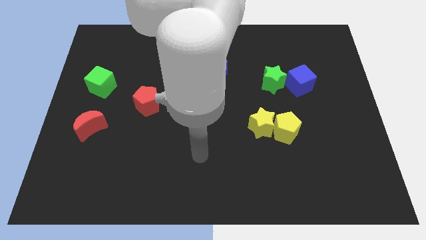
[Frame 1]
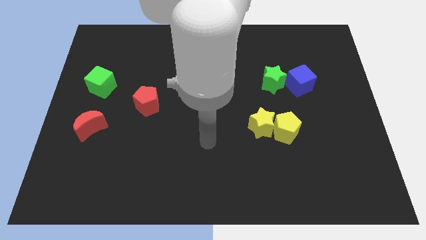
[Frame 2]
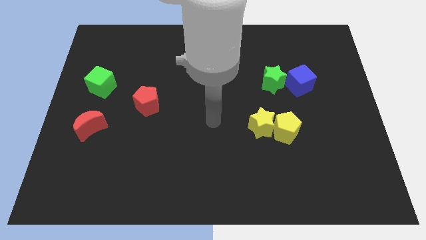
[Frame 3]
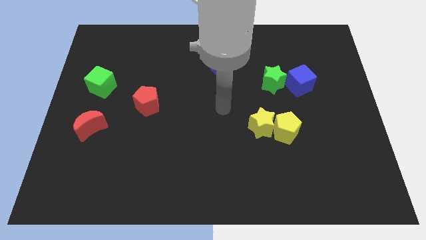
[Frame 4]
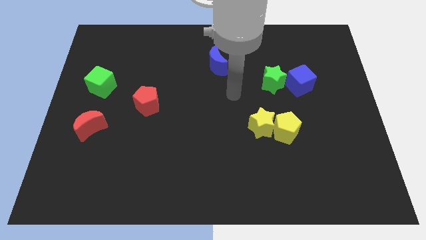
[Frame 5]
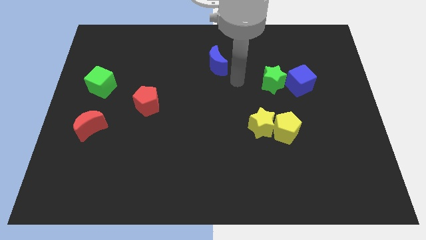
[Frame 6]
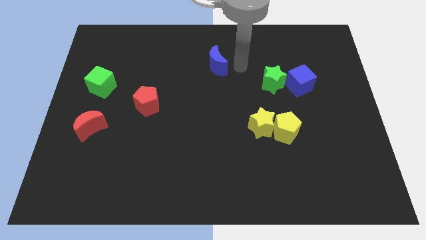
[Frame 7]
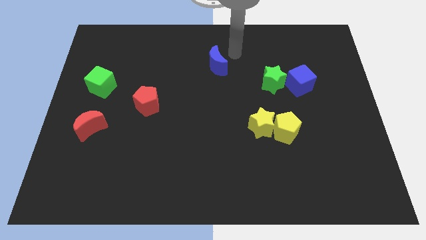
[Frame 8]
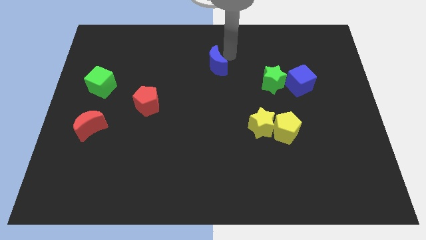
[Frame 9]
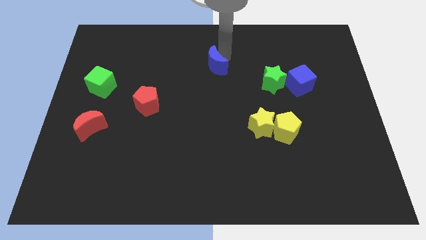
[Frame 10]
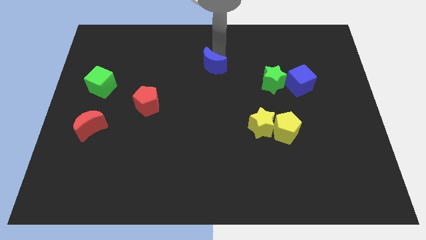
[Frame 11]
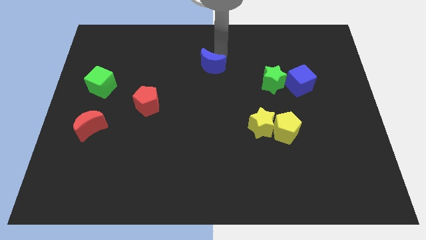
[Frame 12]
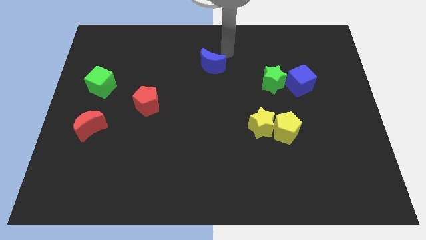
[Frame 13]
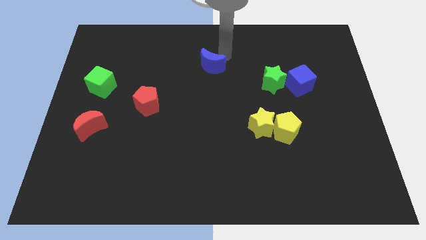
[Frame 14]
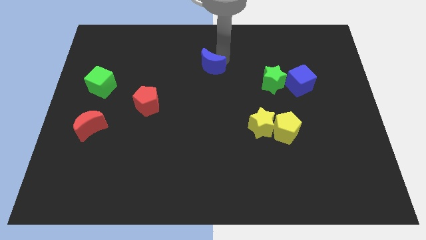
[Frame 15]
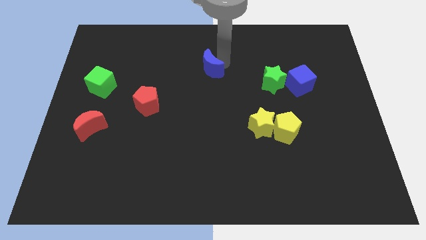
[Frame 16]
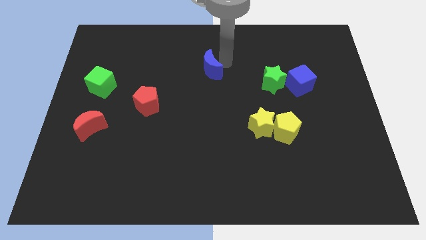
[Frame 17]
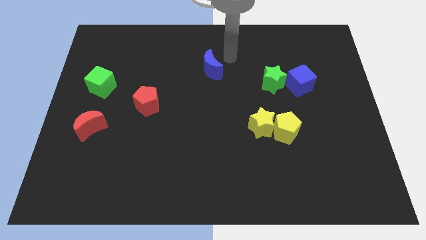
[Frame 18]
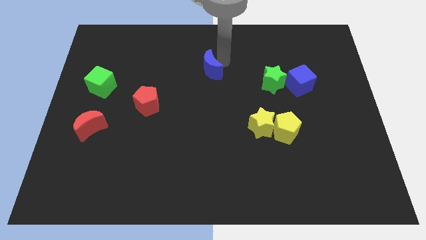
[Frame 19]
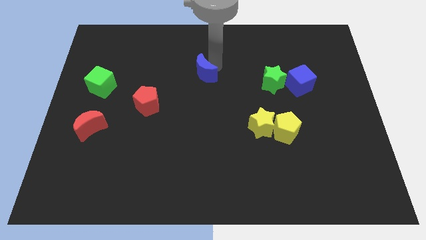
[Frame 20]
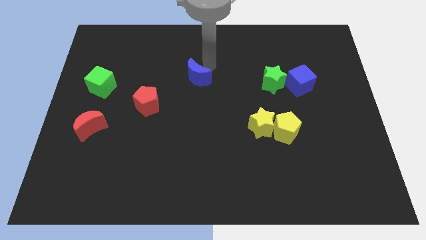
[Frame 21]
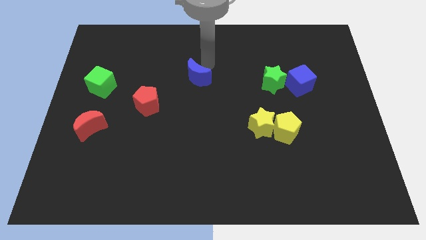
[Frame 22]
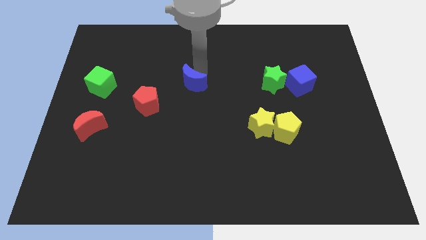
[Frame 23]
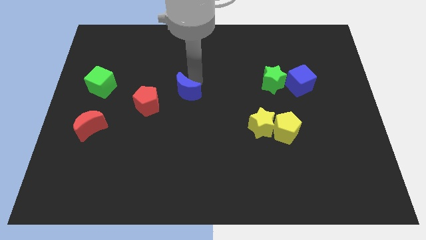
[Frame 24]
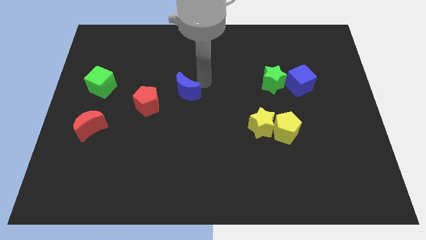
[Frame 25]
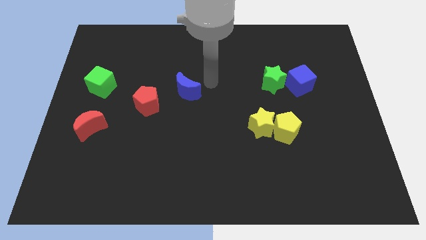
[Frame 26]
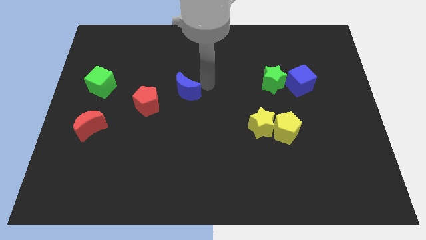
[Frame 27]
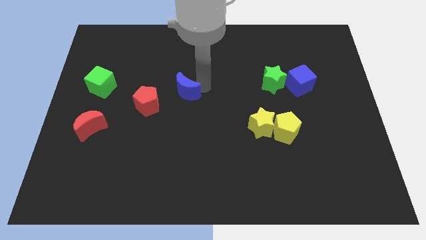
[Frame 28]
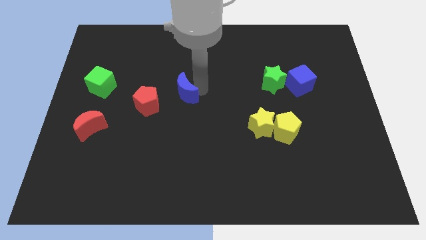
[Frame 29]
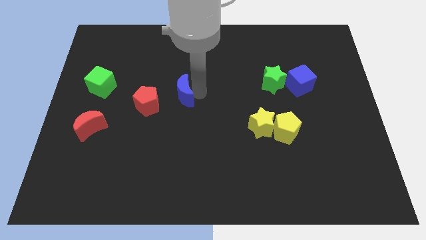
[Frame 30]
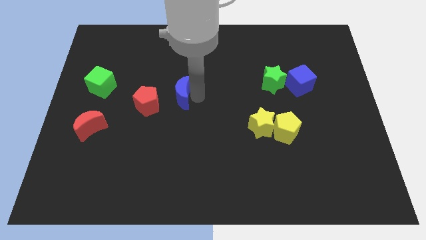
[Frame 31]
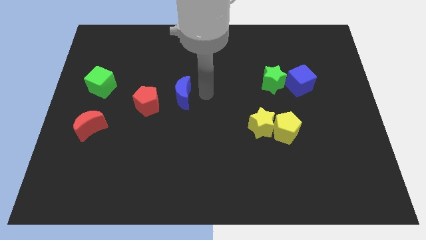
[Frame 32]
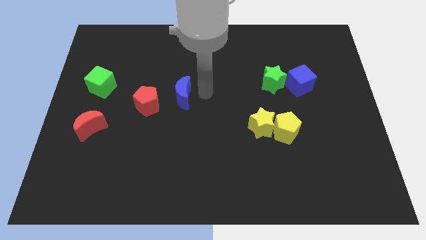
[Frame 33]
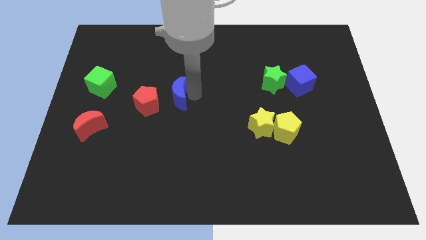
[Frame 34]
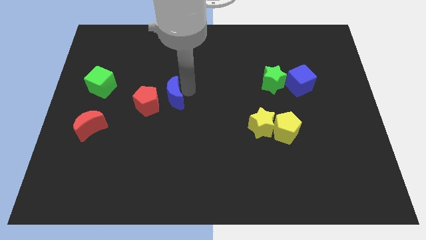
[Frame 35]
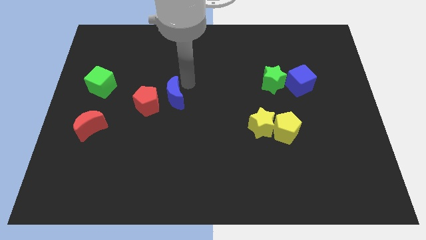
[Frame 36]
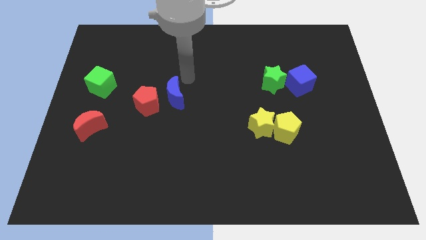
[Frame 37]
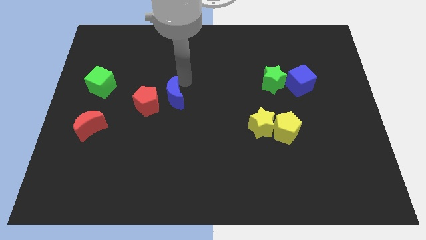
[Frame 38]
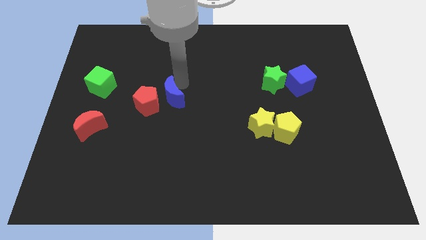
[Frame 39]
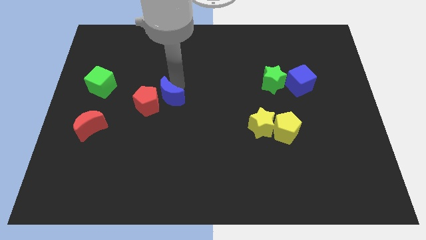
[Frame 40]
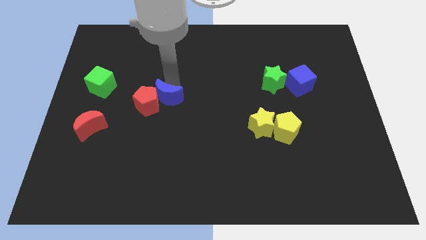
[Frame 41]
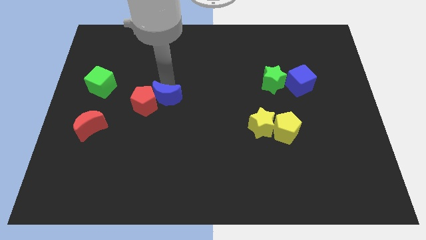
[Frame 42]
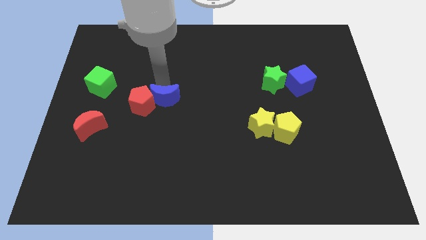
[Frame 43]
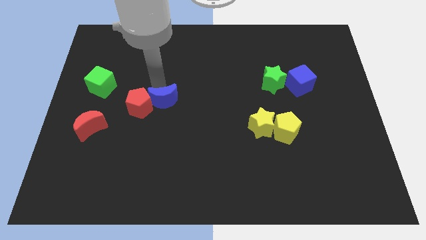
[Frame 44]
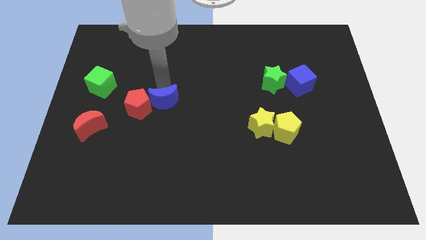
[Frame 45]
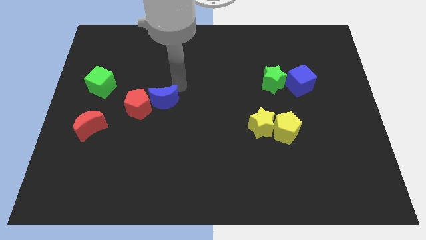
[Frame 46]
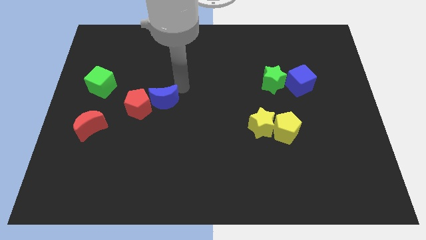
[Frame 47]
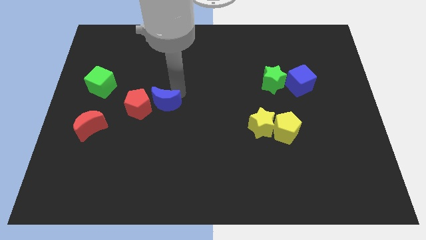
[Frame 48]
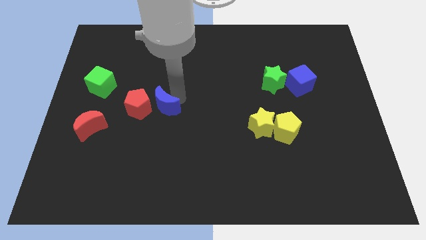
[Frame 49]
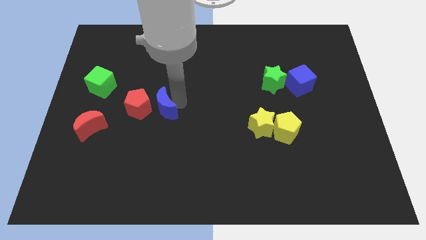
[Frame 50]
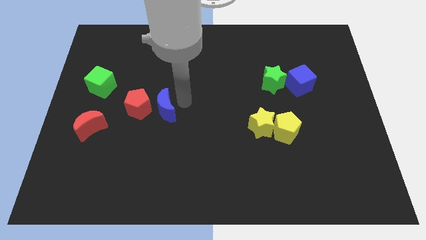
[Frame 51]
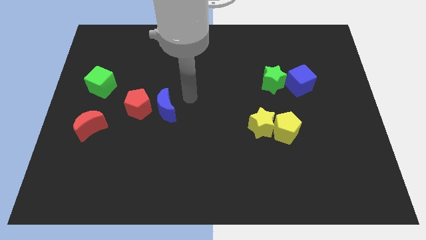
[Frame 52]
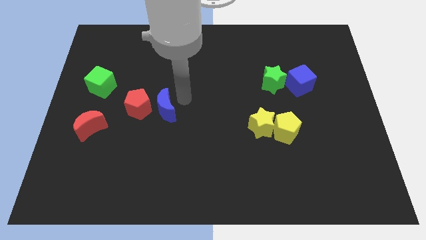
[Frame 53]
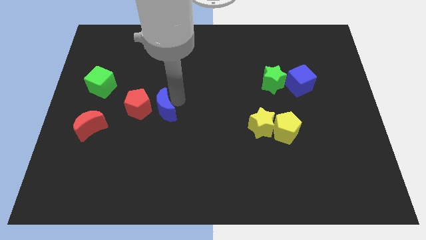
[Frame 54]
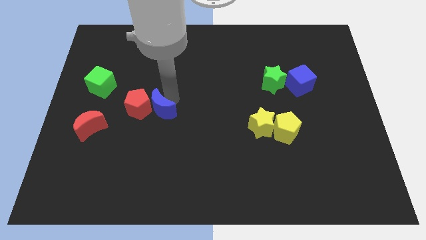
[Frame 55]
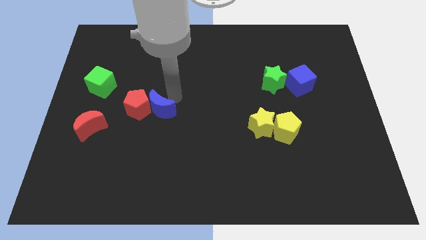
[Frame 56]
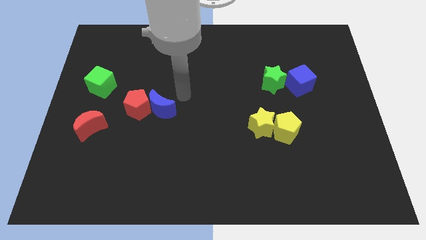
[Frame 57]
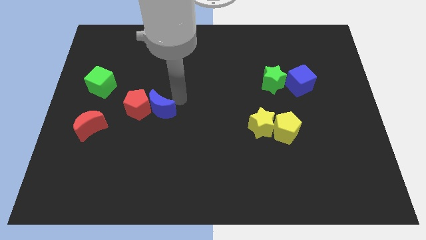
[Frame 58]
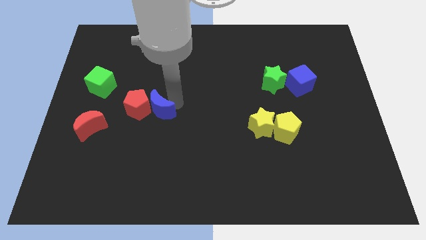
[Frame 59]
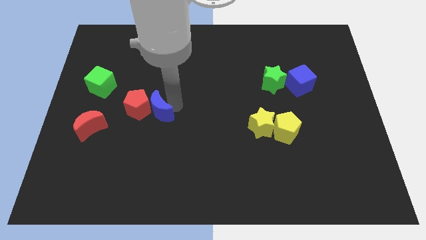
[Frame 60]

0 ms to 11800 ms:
push the blue moon diagonally down and left

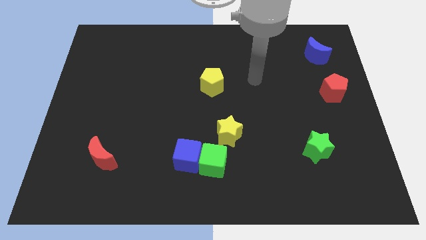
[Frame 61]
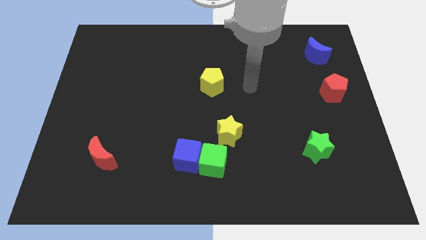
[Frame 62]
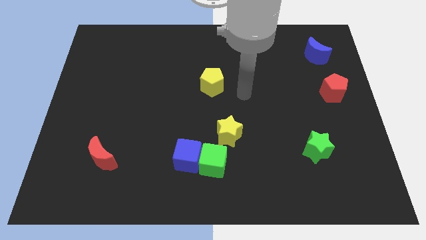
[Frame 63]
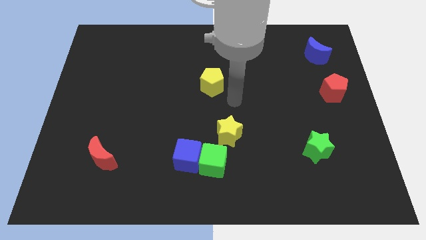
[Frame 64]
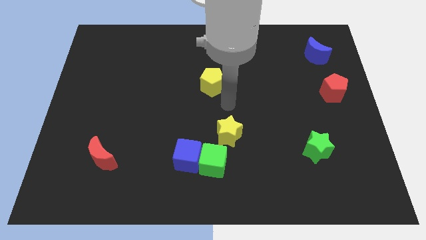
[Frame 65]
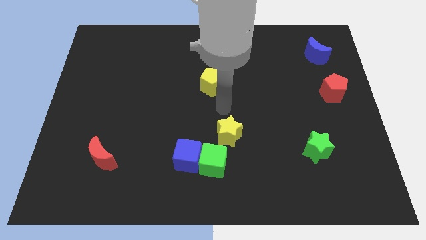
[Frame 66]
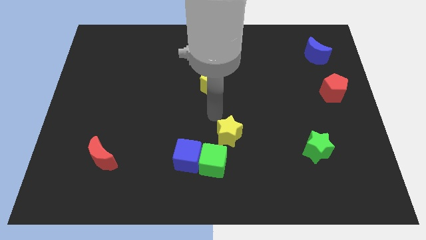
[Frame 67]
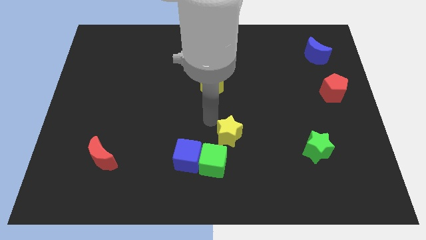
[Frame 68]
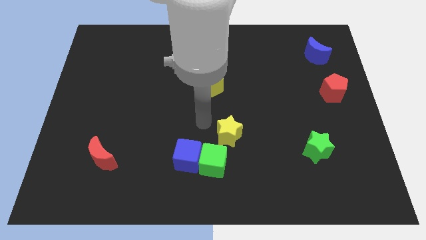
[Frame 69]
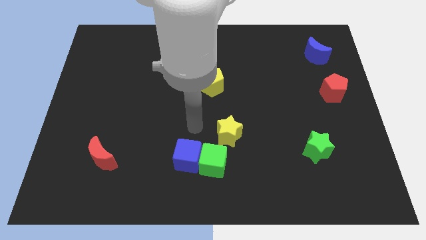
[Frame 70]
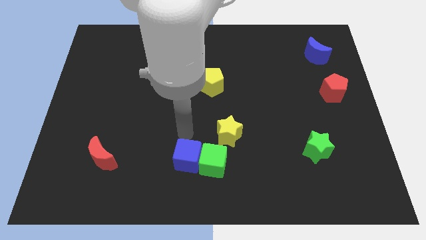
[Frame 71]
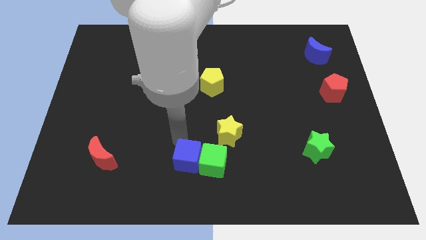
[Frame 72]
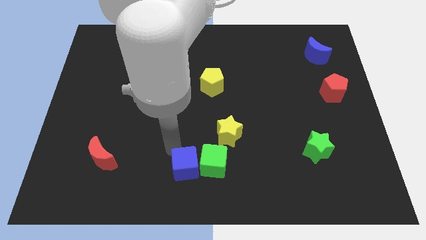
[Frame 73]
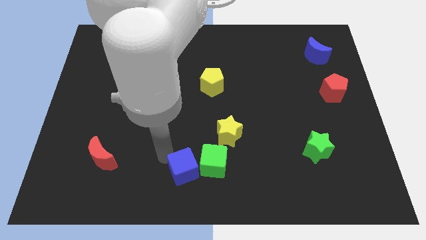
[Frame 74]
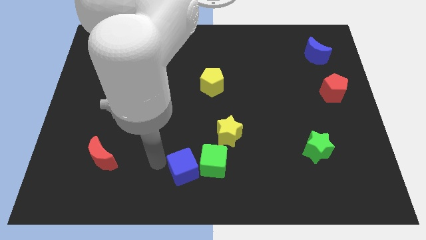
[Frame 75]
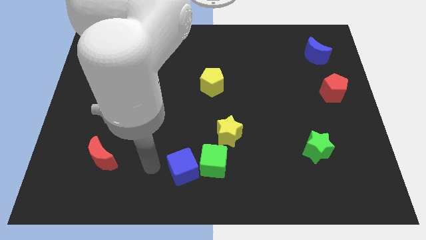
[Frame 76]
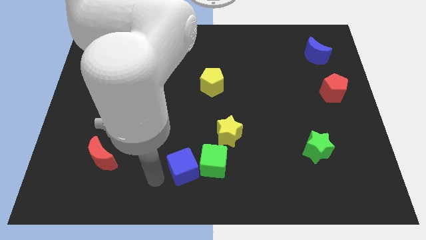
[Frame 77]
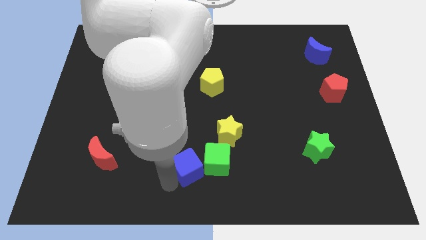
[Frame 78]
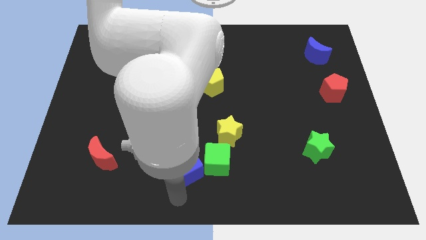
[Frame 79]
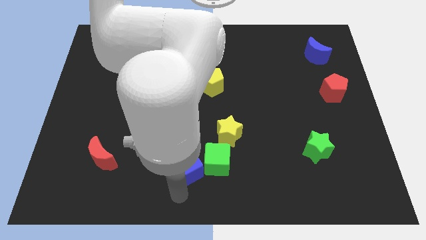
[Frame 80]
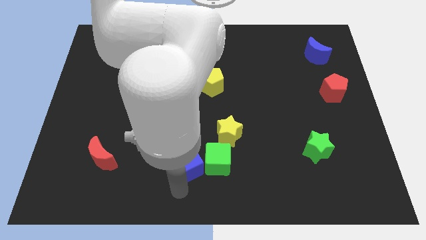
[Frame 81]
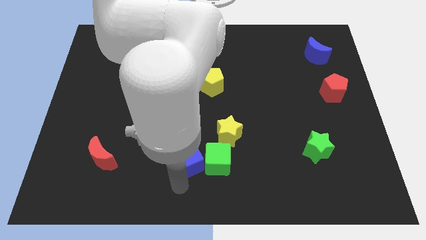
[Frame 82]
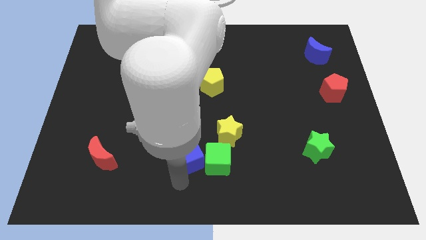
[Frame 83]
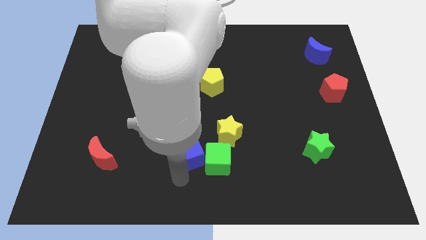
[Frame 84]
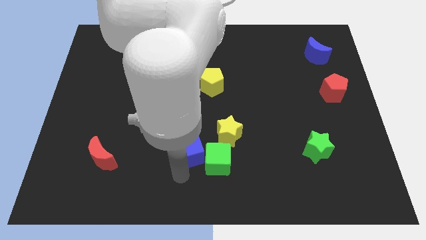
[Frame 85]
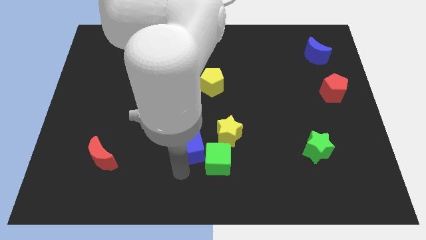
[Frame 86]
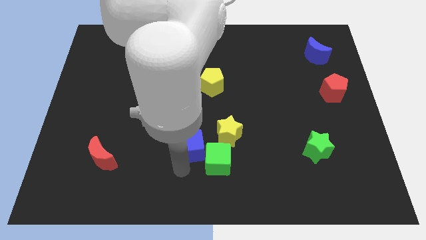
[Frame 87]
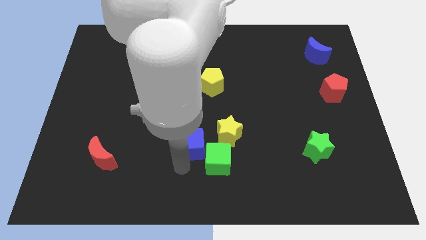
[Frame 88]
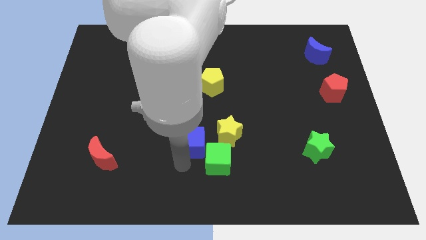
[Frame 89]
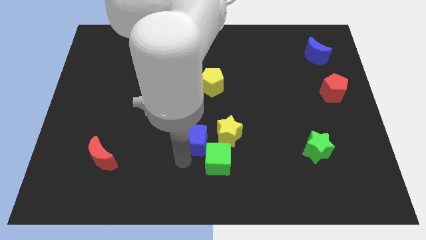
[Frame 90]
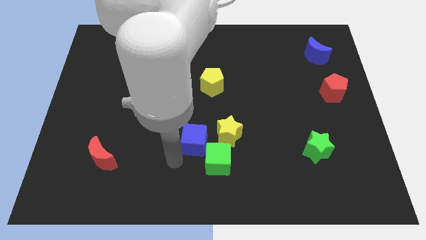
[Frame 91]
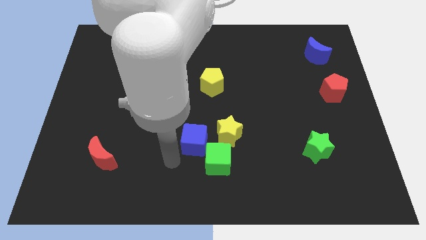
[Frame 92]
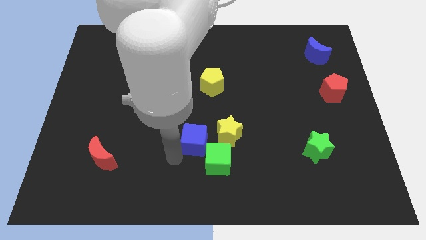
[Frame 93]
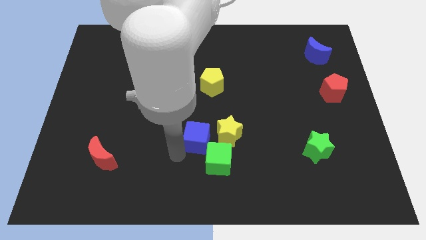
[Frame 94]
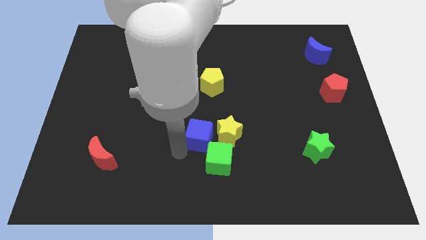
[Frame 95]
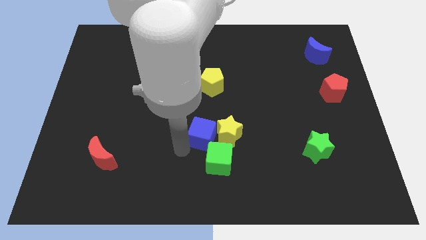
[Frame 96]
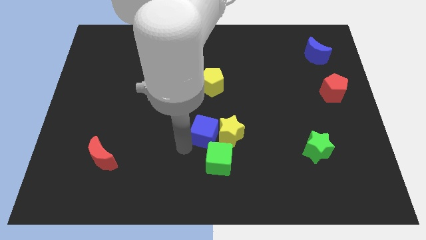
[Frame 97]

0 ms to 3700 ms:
slightly slide the blue cube upwards and right
